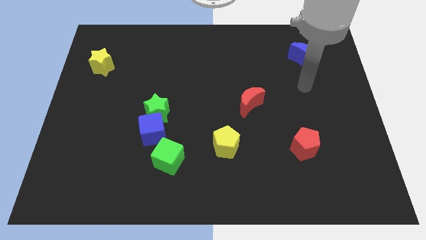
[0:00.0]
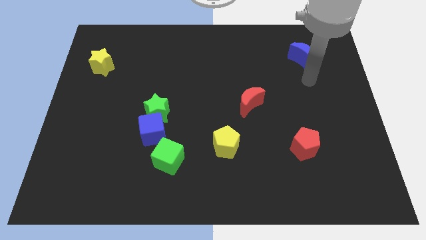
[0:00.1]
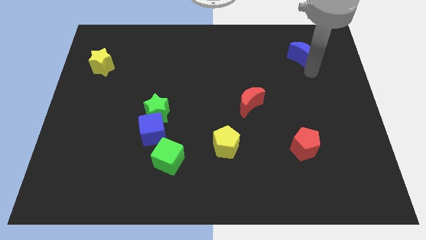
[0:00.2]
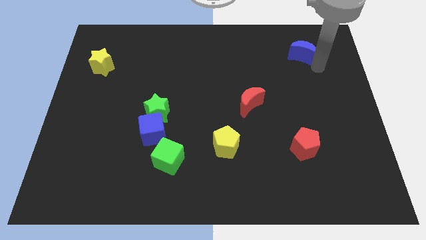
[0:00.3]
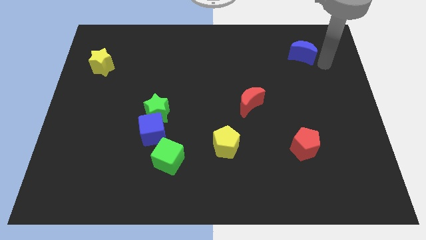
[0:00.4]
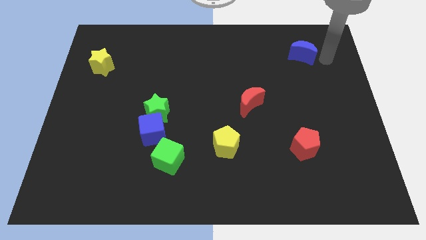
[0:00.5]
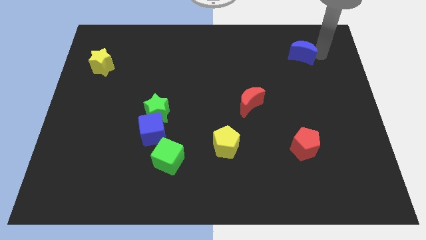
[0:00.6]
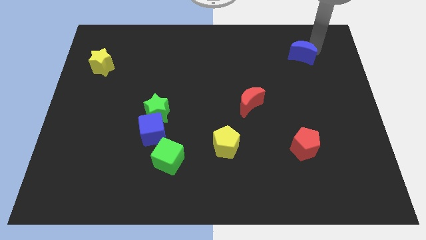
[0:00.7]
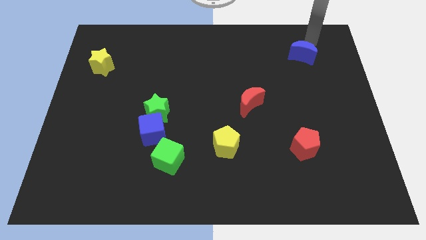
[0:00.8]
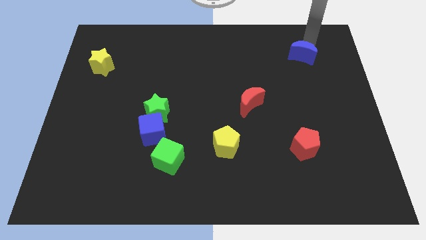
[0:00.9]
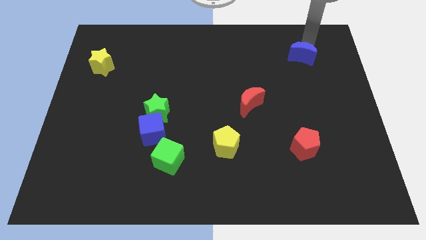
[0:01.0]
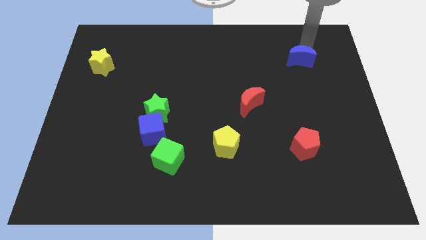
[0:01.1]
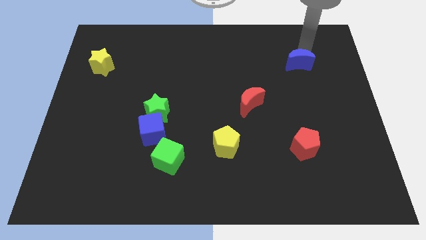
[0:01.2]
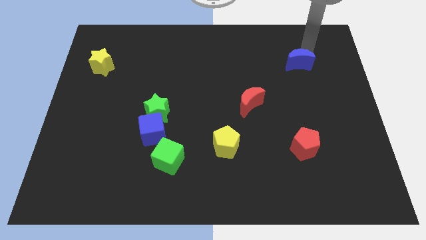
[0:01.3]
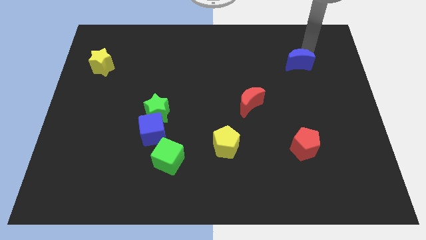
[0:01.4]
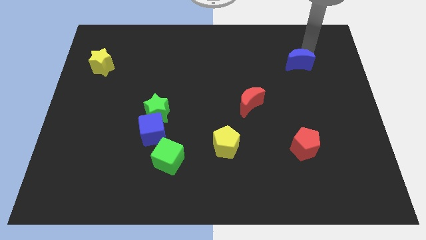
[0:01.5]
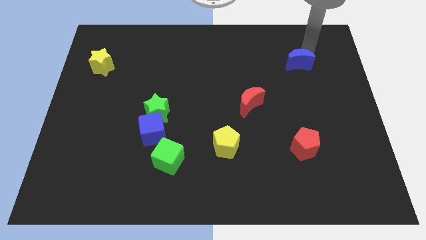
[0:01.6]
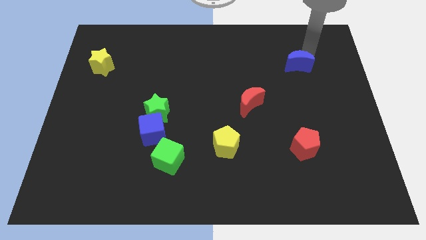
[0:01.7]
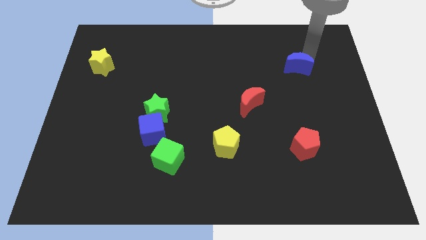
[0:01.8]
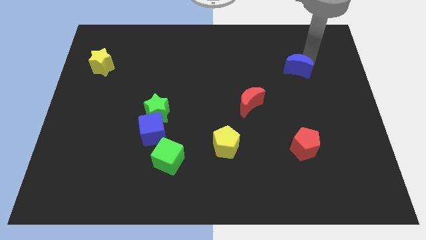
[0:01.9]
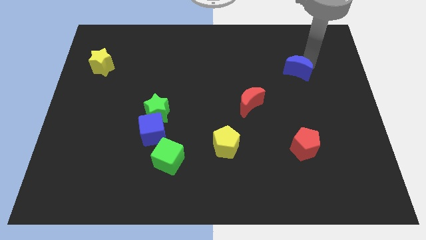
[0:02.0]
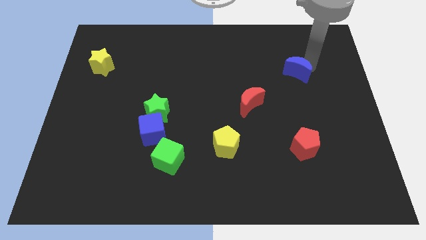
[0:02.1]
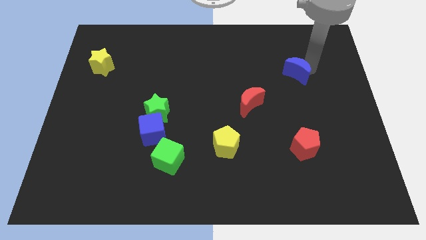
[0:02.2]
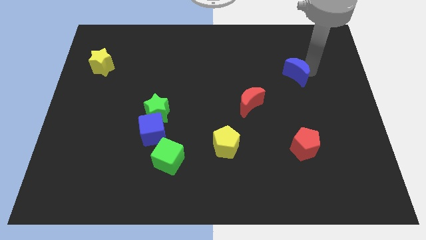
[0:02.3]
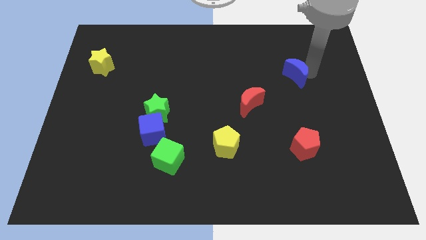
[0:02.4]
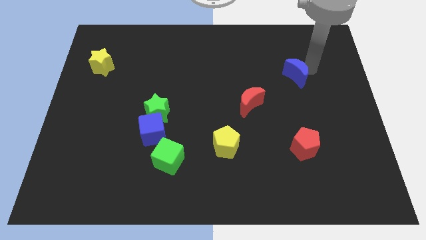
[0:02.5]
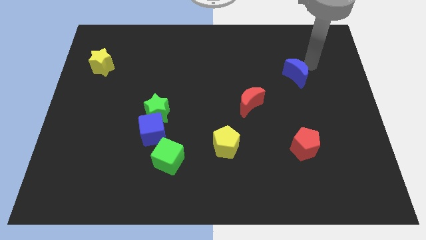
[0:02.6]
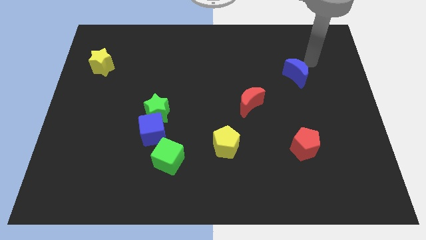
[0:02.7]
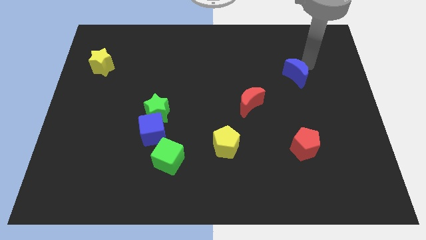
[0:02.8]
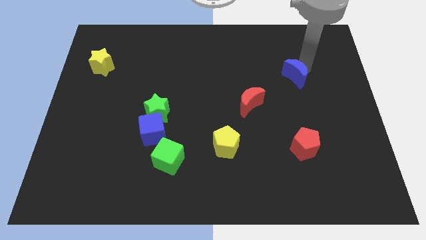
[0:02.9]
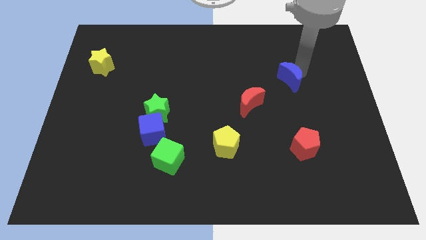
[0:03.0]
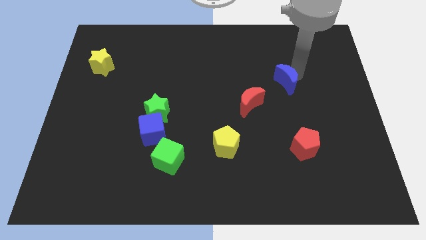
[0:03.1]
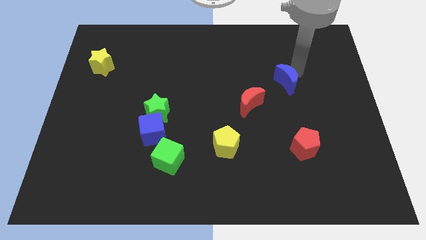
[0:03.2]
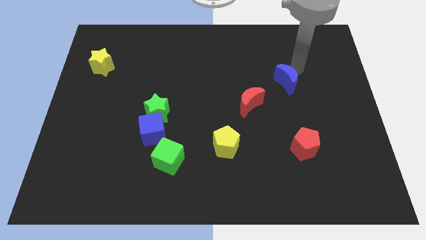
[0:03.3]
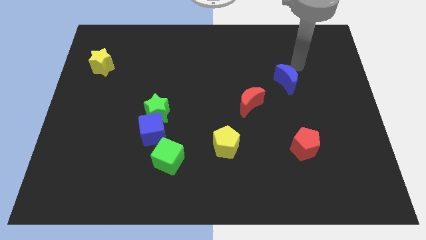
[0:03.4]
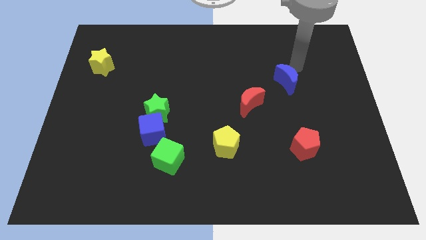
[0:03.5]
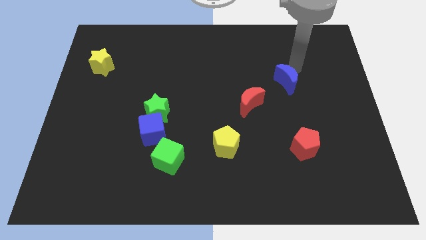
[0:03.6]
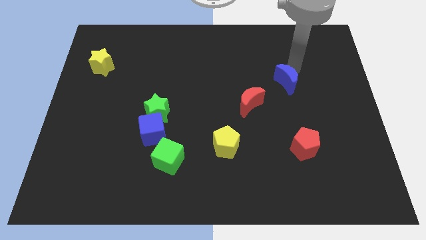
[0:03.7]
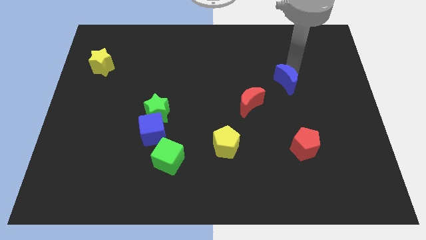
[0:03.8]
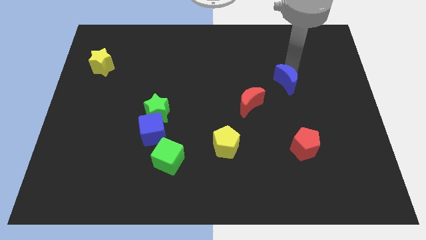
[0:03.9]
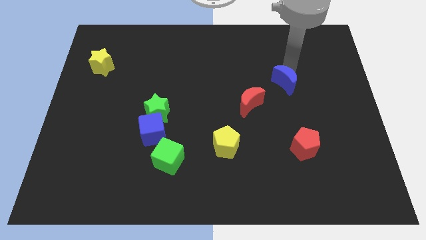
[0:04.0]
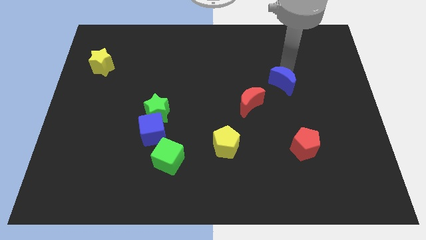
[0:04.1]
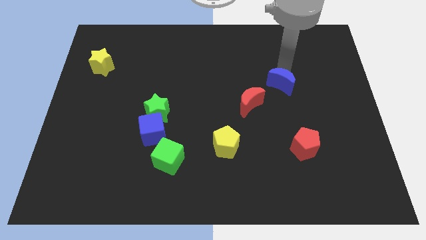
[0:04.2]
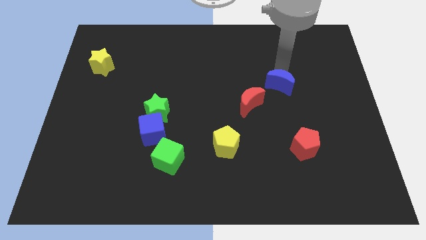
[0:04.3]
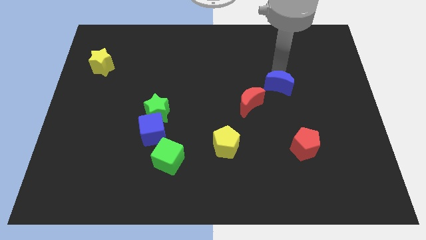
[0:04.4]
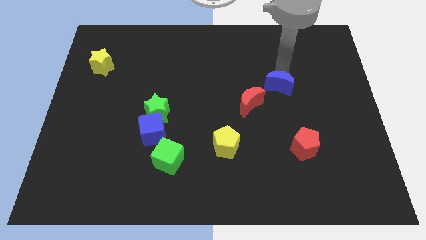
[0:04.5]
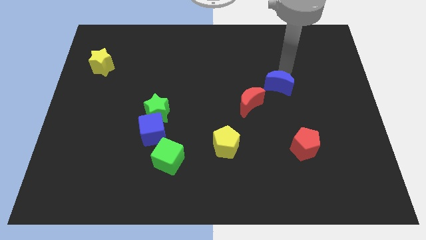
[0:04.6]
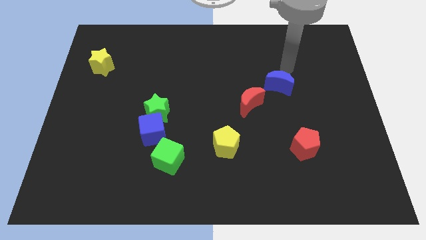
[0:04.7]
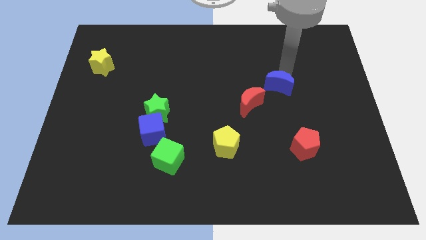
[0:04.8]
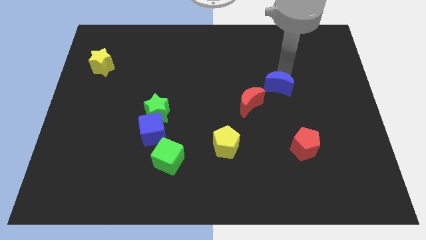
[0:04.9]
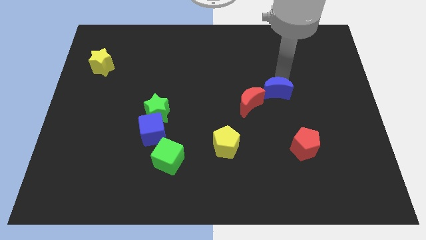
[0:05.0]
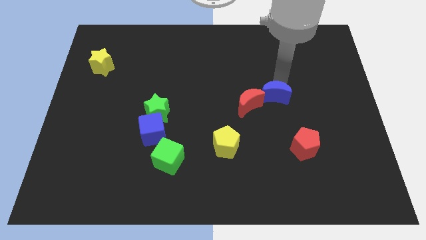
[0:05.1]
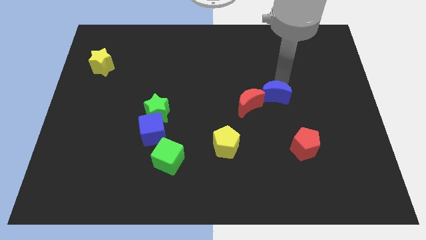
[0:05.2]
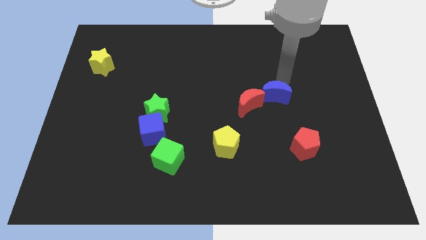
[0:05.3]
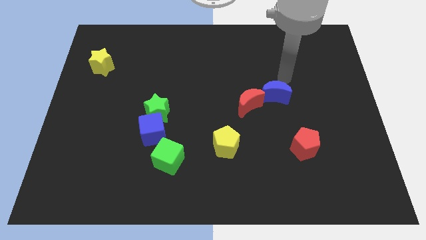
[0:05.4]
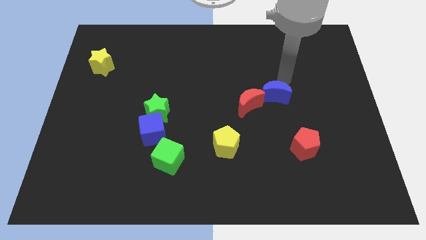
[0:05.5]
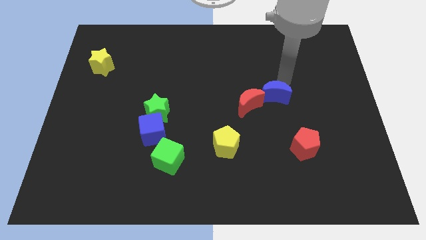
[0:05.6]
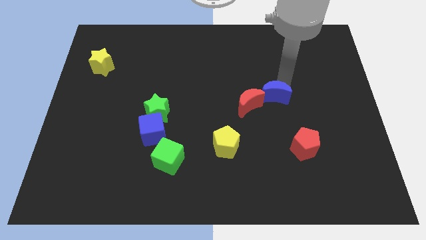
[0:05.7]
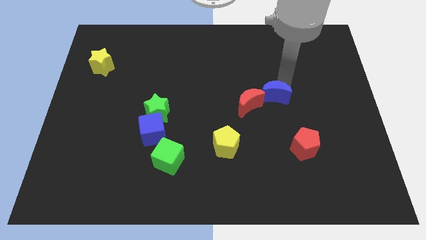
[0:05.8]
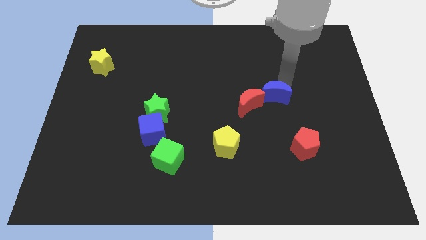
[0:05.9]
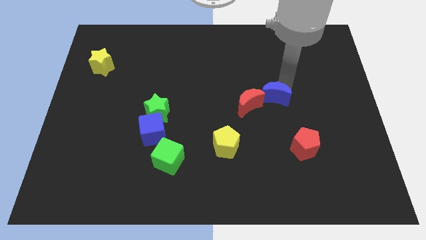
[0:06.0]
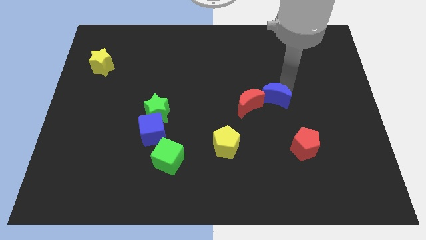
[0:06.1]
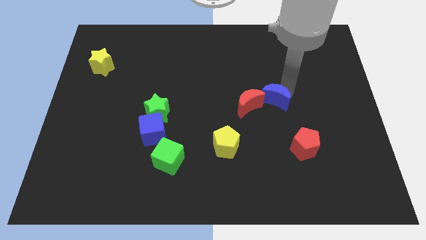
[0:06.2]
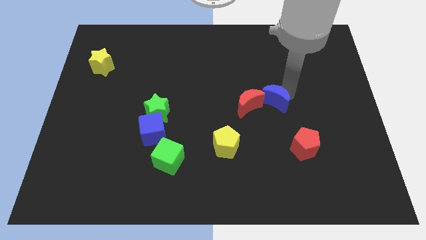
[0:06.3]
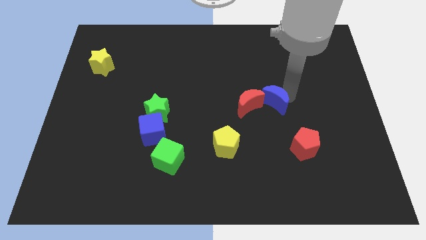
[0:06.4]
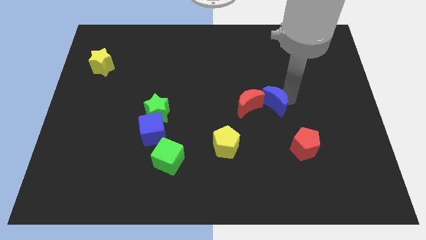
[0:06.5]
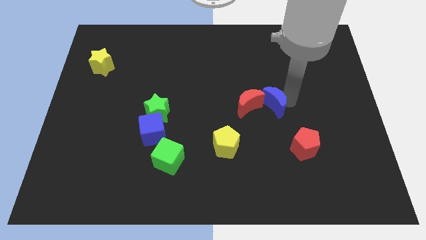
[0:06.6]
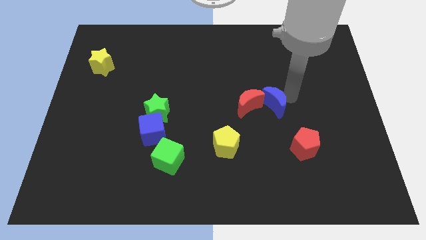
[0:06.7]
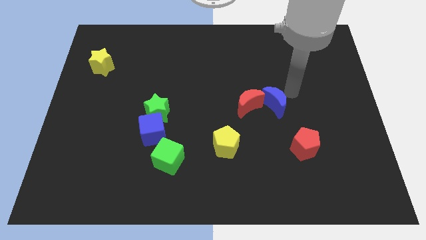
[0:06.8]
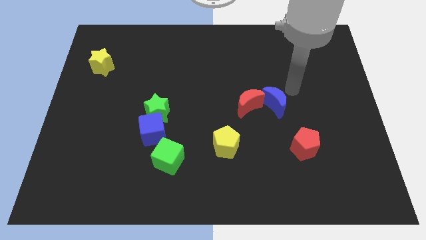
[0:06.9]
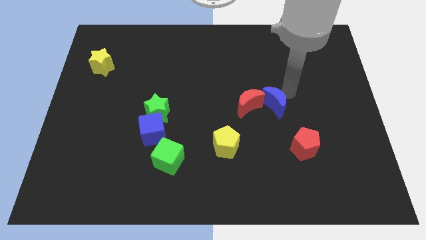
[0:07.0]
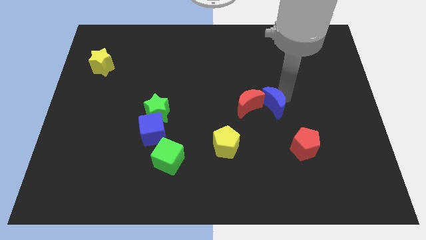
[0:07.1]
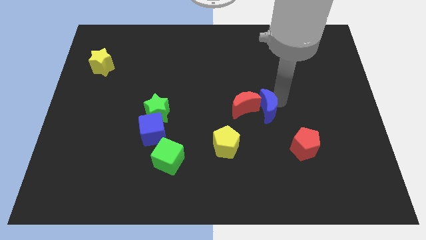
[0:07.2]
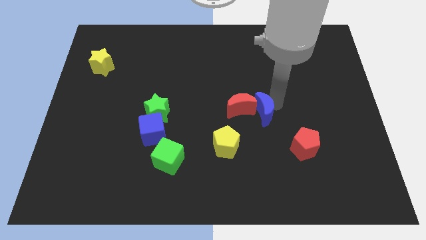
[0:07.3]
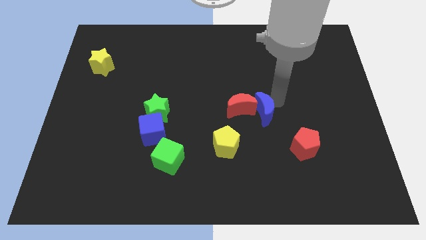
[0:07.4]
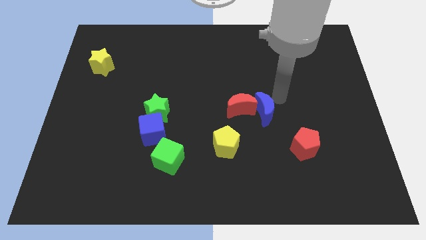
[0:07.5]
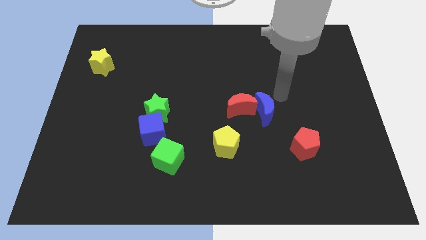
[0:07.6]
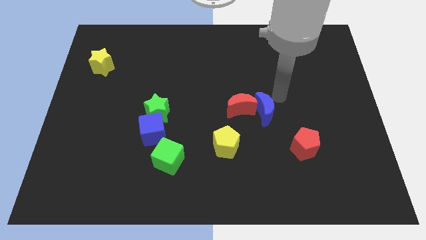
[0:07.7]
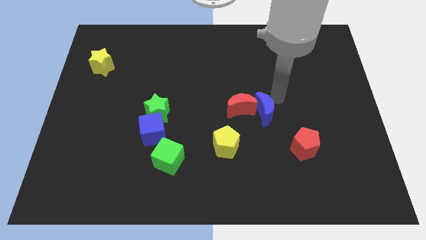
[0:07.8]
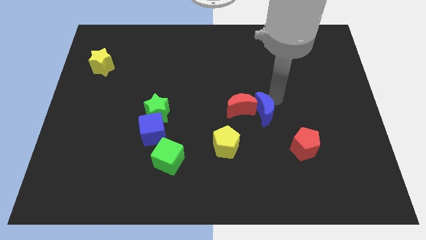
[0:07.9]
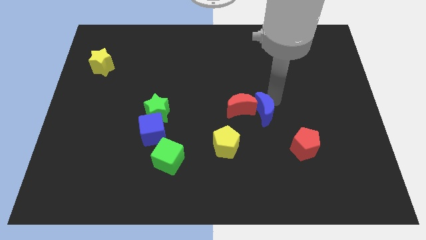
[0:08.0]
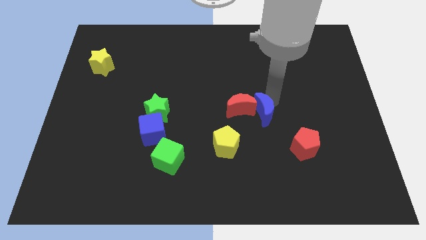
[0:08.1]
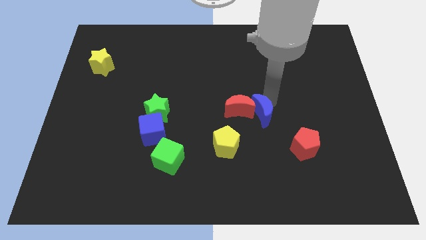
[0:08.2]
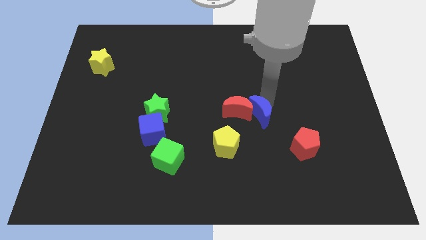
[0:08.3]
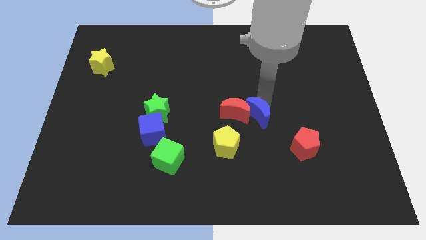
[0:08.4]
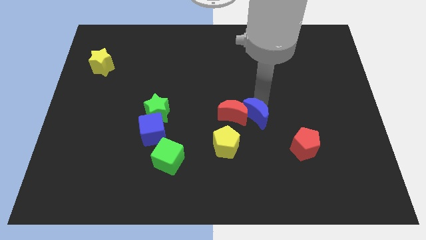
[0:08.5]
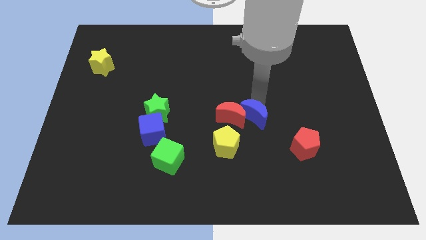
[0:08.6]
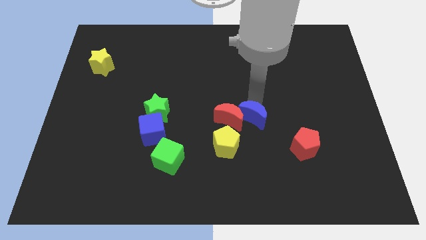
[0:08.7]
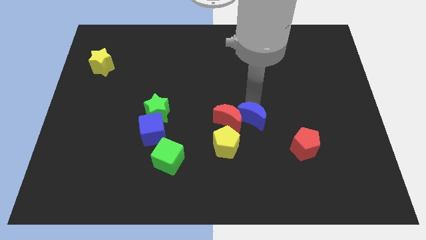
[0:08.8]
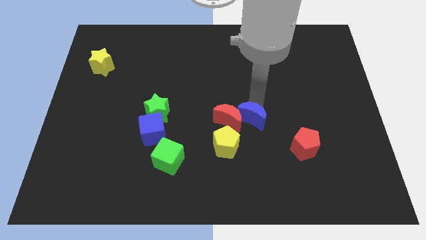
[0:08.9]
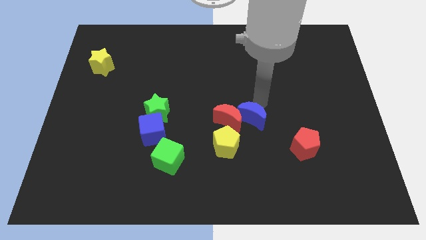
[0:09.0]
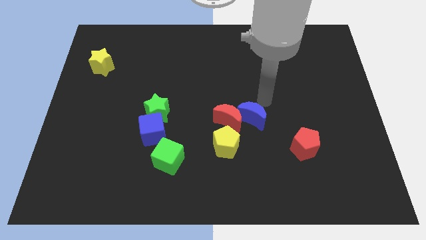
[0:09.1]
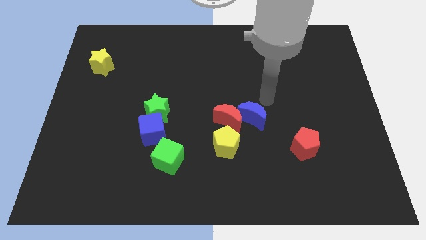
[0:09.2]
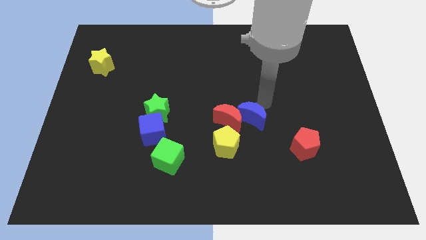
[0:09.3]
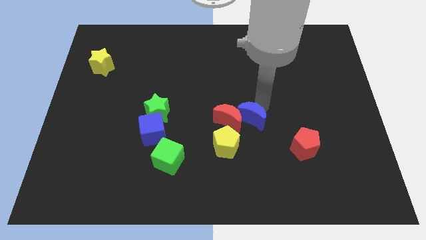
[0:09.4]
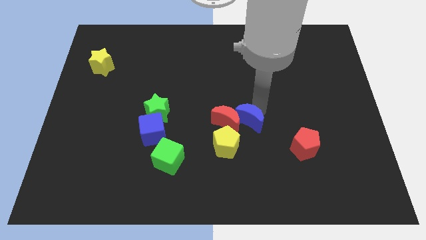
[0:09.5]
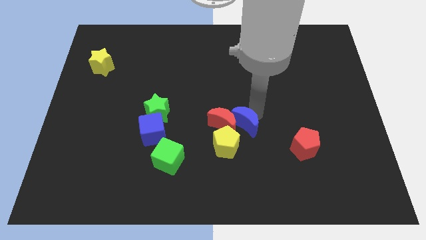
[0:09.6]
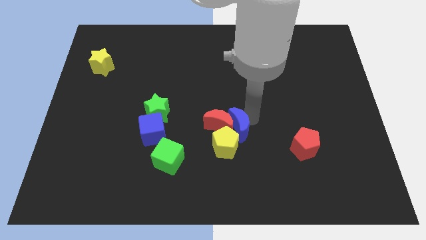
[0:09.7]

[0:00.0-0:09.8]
slide the blue moon towards the yellow pentagon
